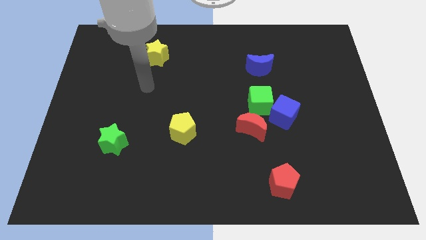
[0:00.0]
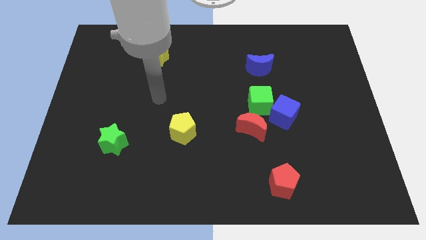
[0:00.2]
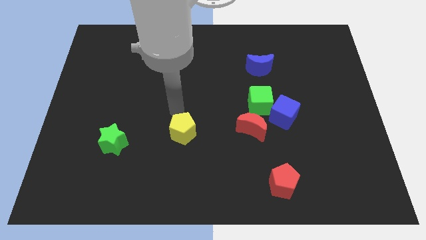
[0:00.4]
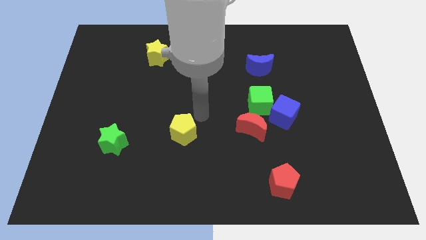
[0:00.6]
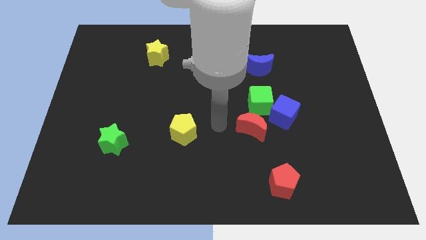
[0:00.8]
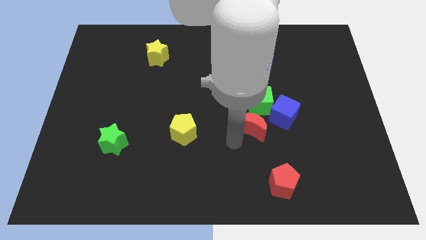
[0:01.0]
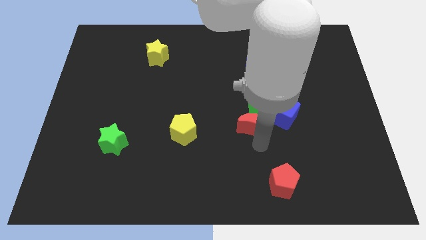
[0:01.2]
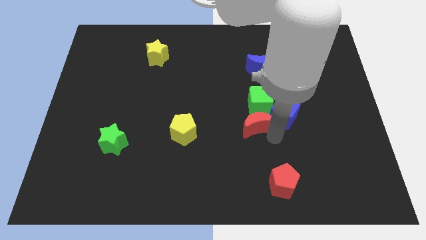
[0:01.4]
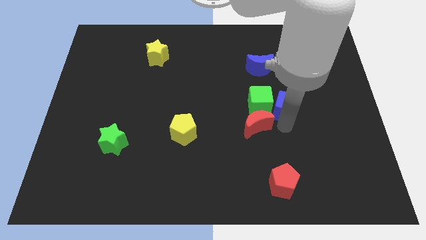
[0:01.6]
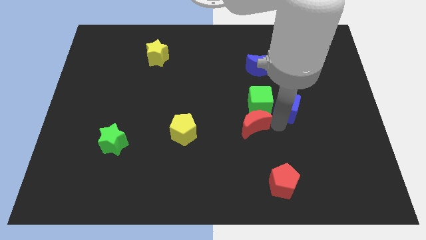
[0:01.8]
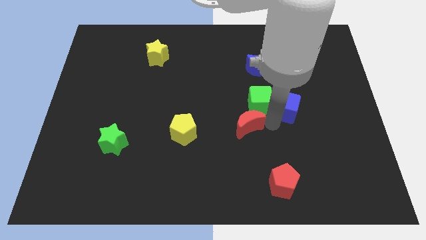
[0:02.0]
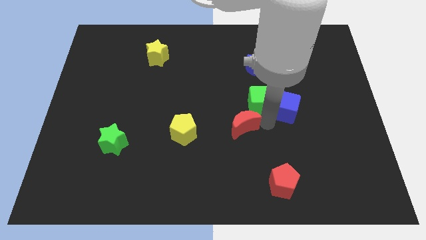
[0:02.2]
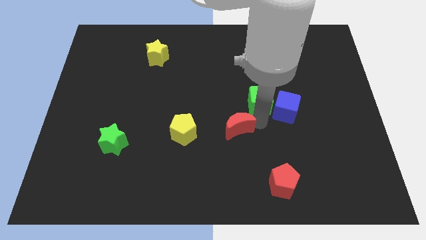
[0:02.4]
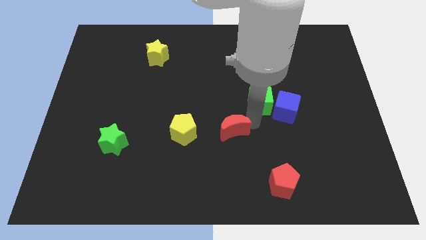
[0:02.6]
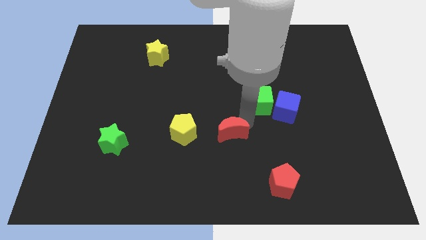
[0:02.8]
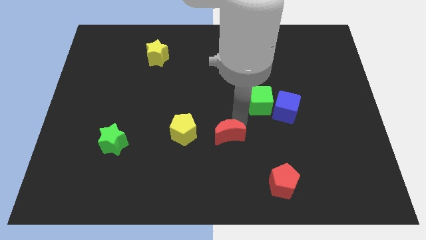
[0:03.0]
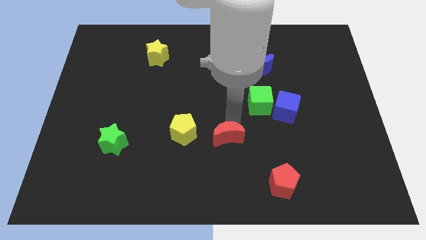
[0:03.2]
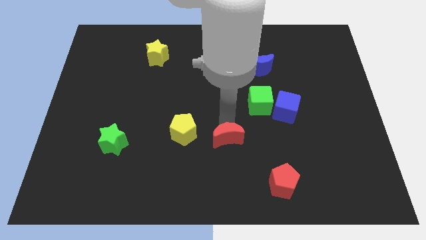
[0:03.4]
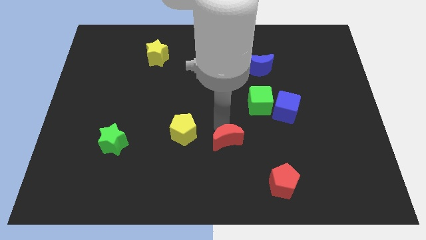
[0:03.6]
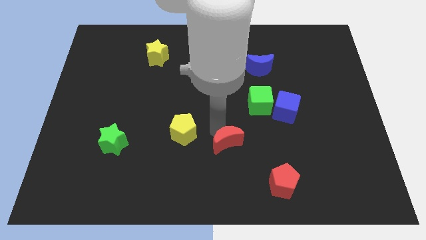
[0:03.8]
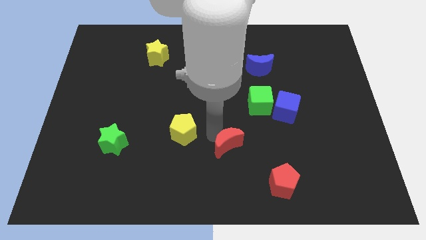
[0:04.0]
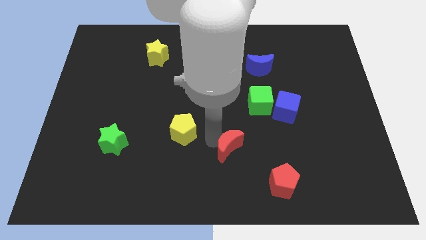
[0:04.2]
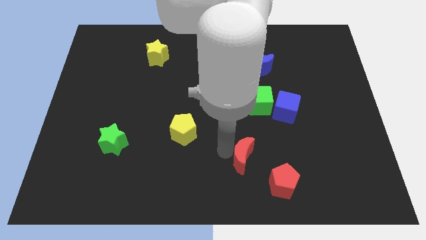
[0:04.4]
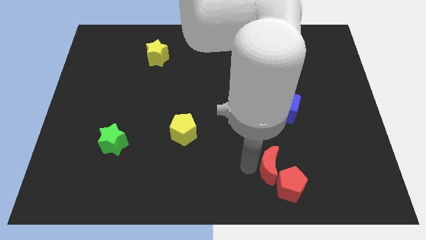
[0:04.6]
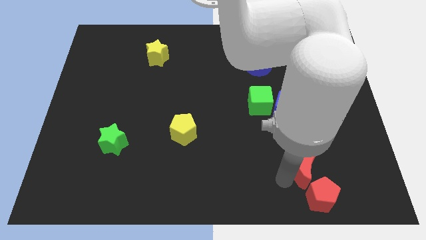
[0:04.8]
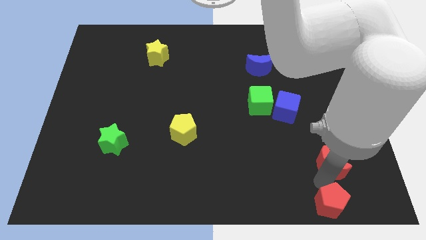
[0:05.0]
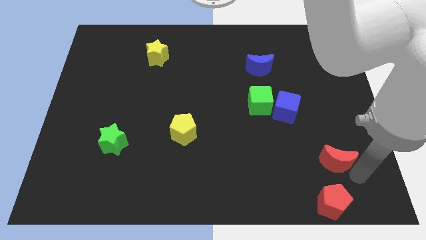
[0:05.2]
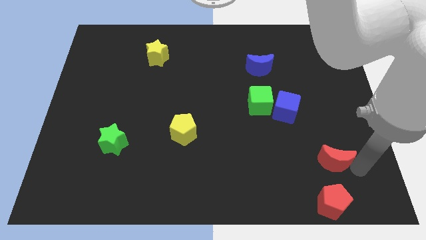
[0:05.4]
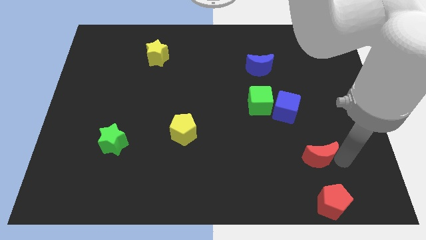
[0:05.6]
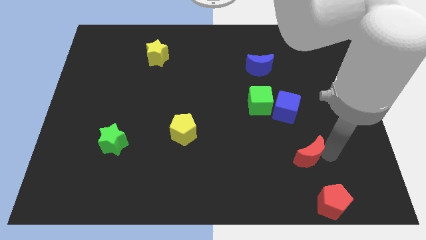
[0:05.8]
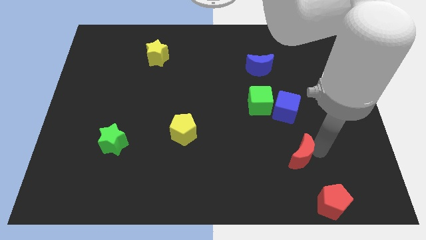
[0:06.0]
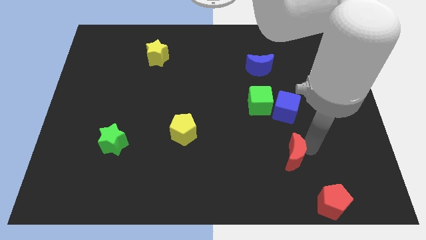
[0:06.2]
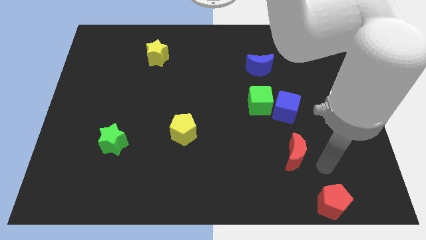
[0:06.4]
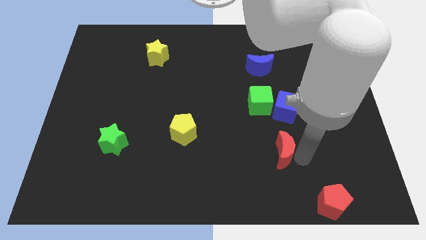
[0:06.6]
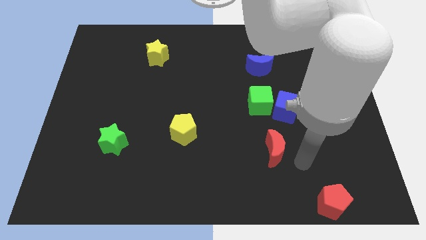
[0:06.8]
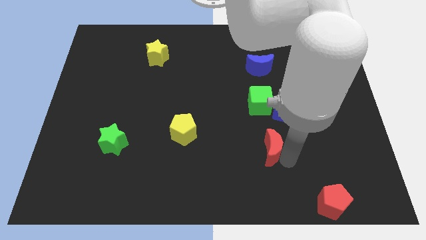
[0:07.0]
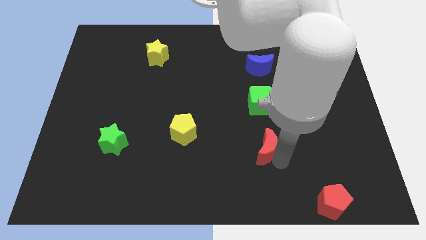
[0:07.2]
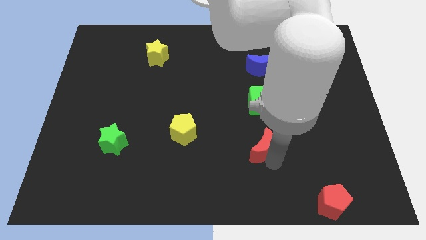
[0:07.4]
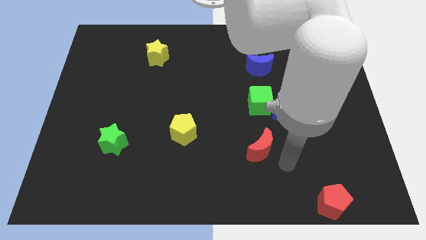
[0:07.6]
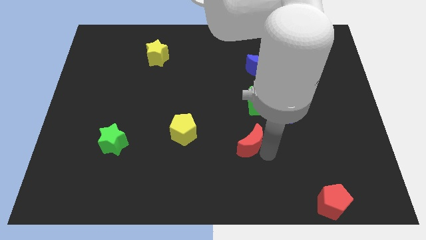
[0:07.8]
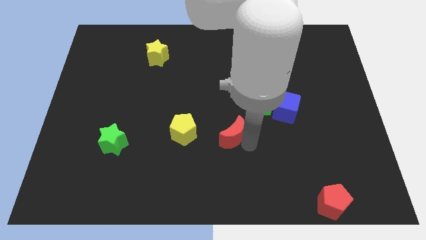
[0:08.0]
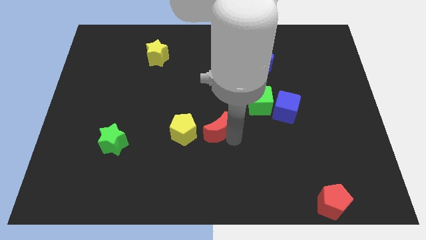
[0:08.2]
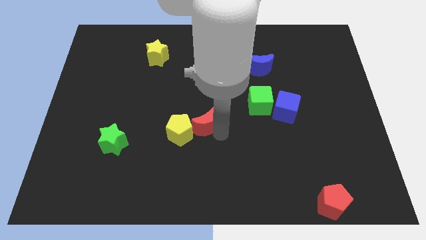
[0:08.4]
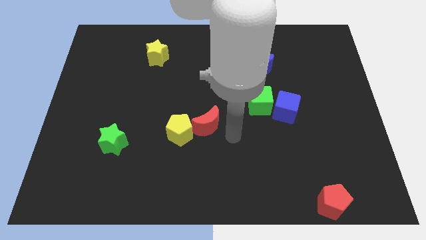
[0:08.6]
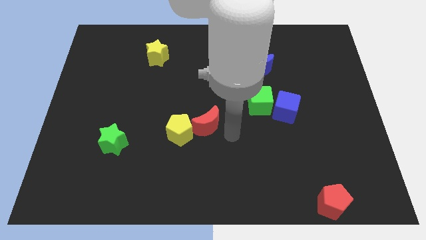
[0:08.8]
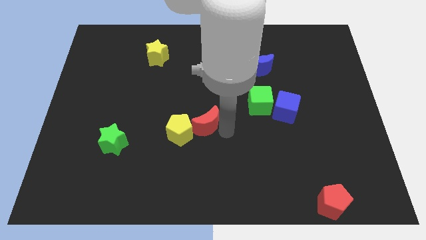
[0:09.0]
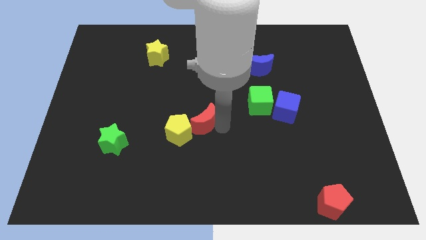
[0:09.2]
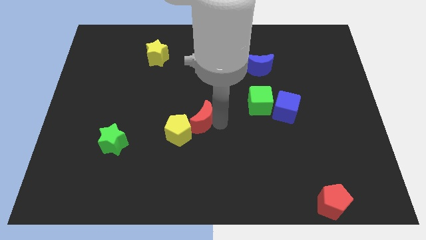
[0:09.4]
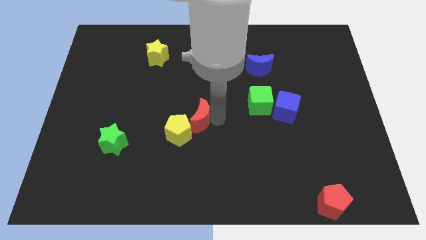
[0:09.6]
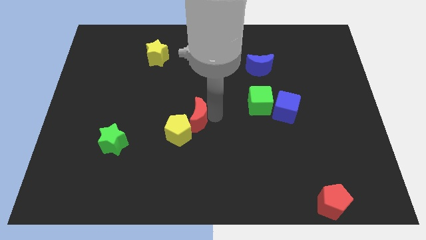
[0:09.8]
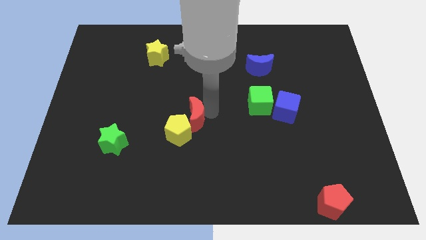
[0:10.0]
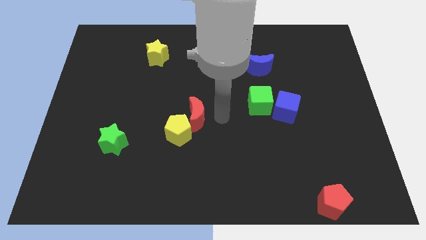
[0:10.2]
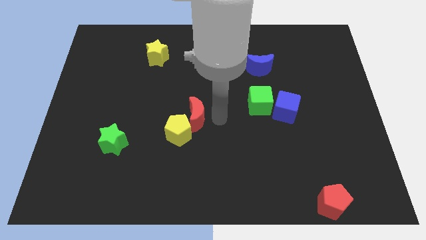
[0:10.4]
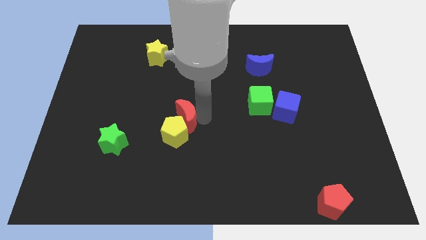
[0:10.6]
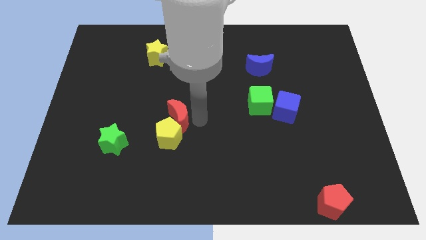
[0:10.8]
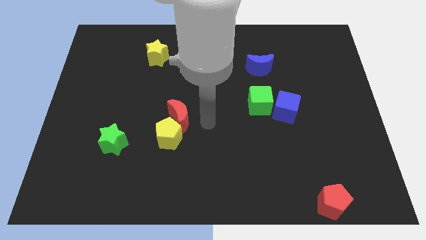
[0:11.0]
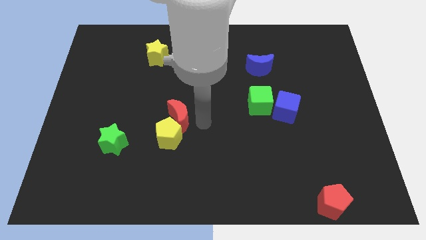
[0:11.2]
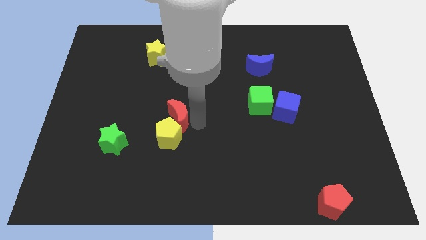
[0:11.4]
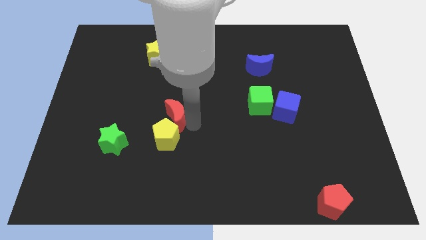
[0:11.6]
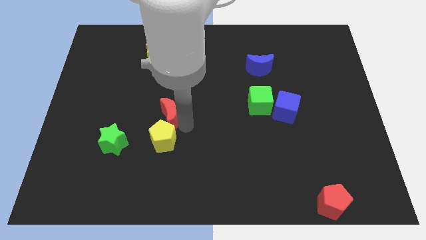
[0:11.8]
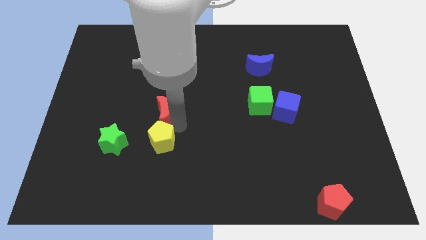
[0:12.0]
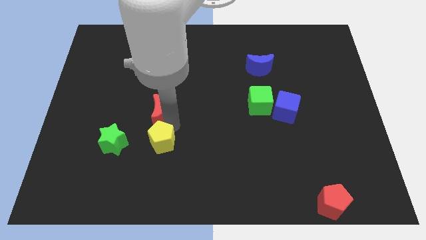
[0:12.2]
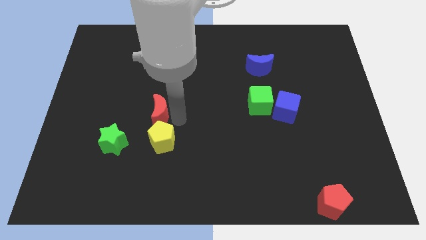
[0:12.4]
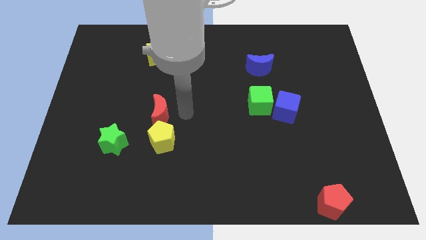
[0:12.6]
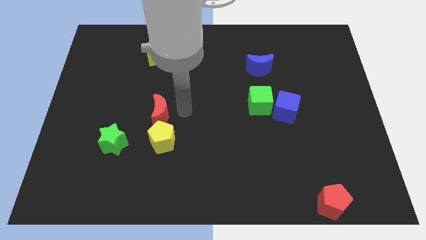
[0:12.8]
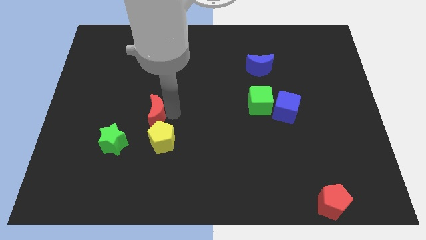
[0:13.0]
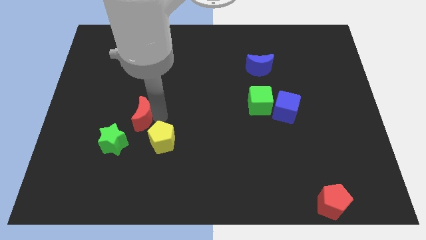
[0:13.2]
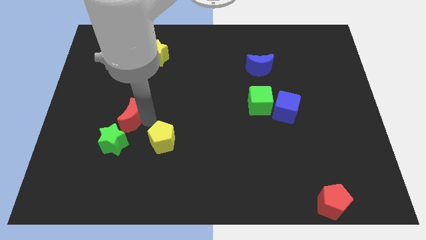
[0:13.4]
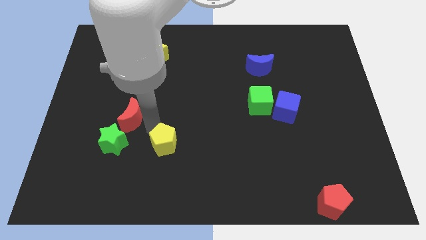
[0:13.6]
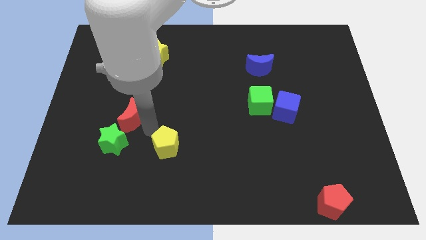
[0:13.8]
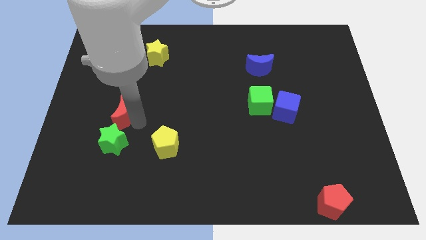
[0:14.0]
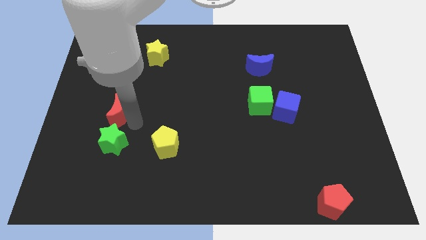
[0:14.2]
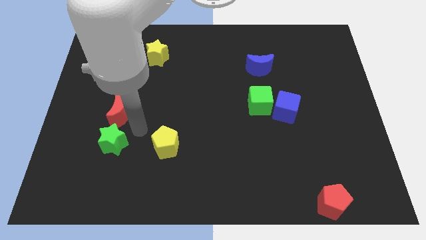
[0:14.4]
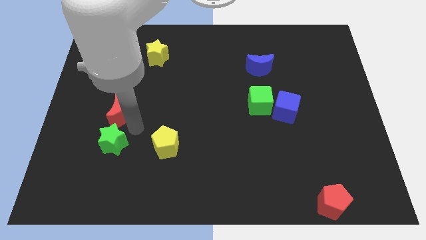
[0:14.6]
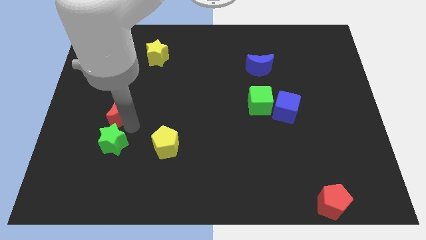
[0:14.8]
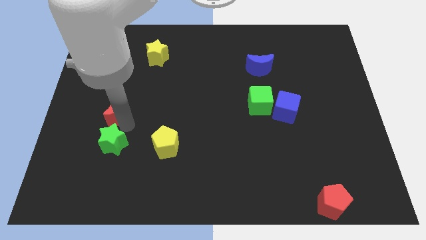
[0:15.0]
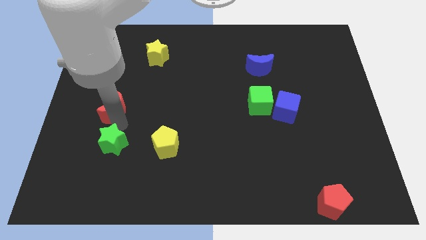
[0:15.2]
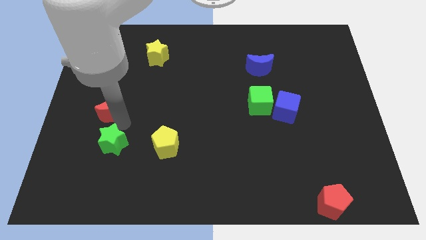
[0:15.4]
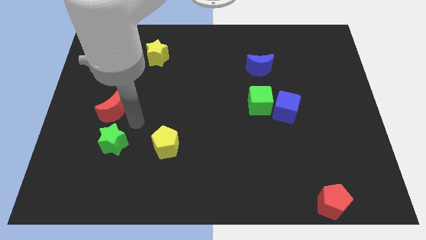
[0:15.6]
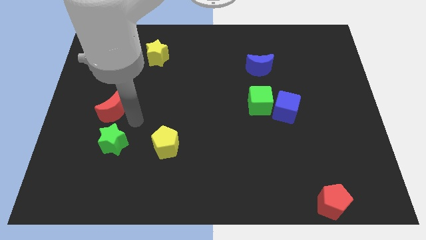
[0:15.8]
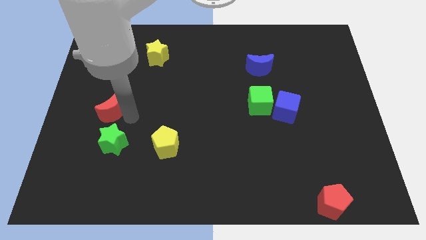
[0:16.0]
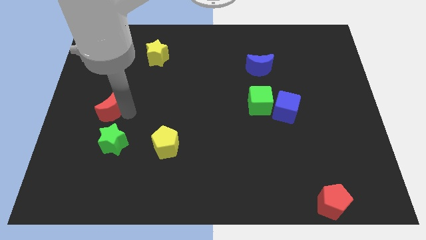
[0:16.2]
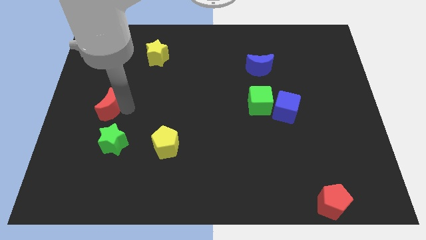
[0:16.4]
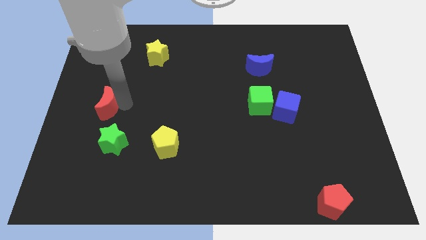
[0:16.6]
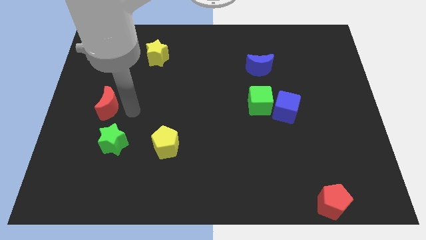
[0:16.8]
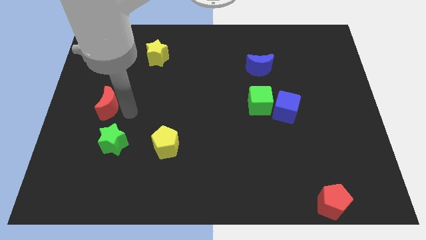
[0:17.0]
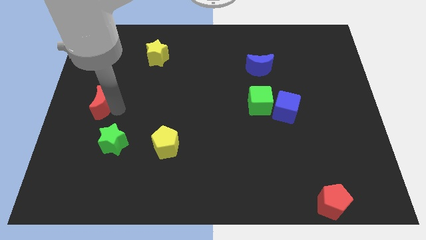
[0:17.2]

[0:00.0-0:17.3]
slide the red moon to the left side
